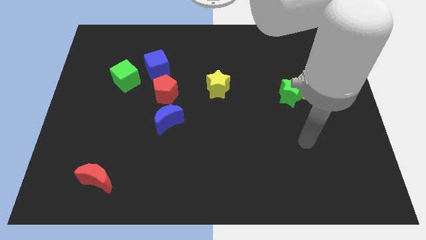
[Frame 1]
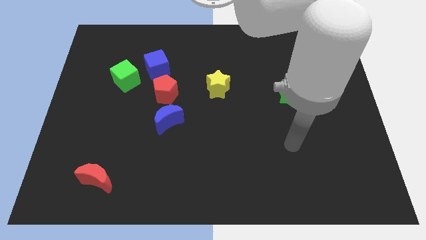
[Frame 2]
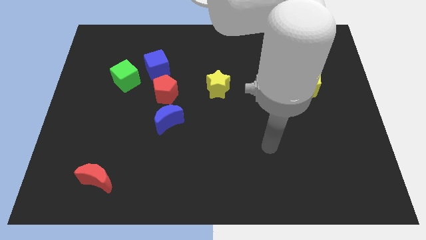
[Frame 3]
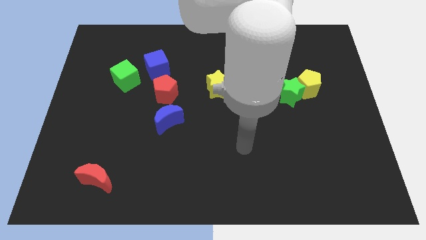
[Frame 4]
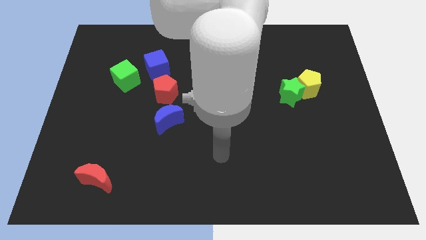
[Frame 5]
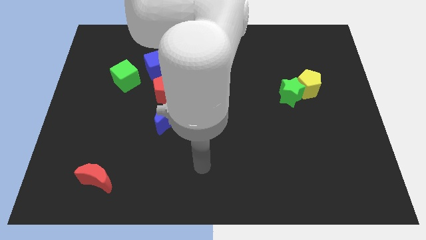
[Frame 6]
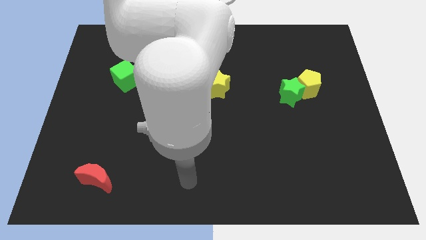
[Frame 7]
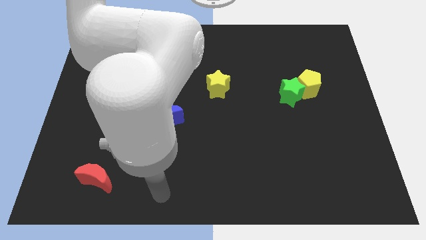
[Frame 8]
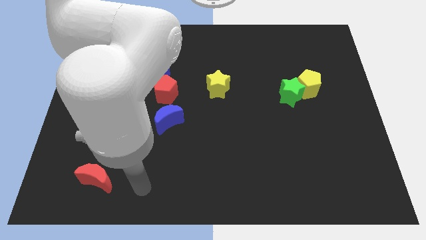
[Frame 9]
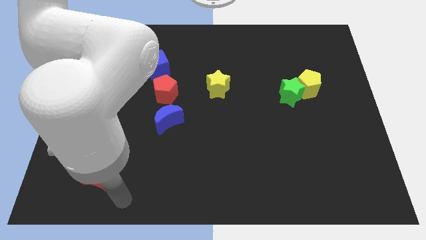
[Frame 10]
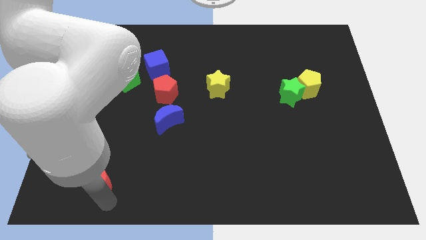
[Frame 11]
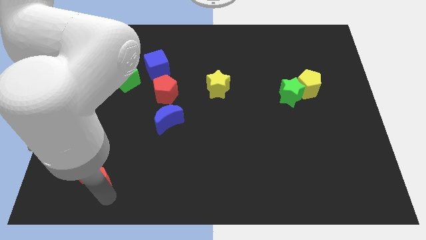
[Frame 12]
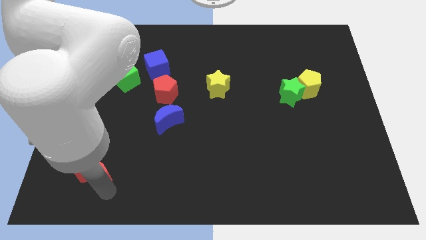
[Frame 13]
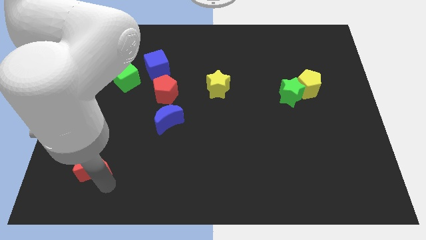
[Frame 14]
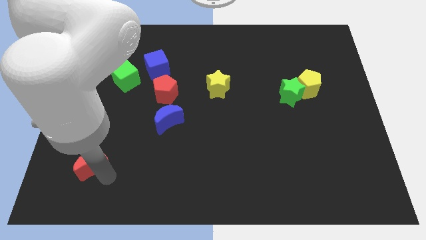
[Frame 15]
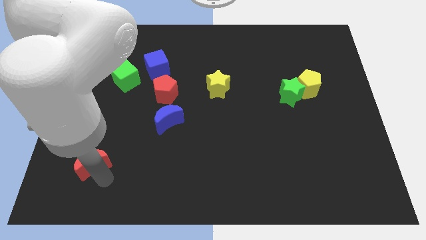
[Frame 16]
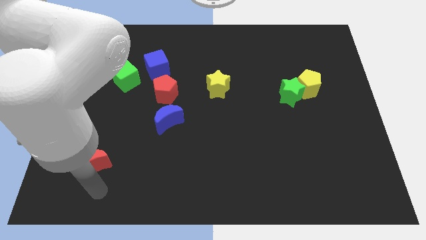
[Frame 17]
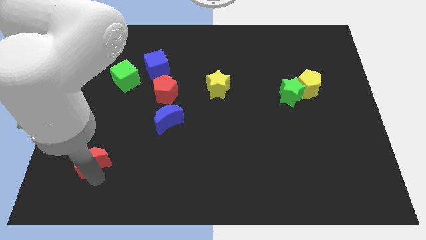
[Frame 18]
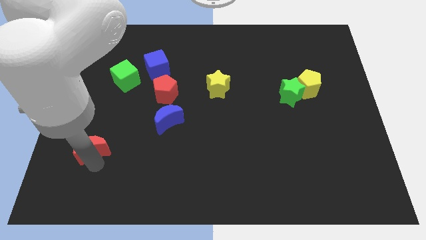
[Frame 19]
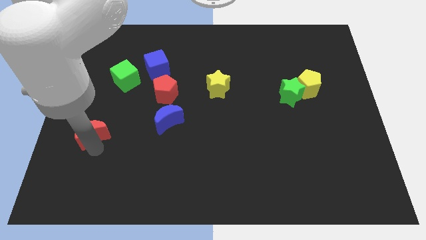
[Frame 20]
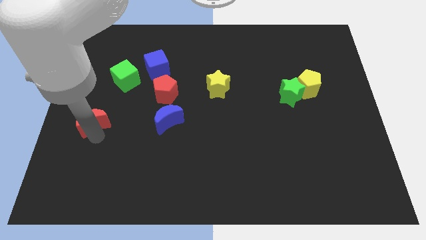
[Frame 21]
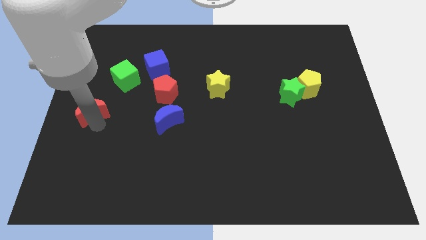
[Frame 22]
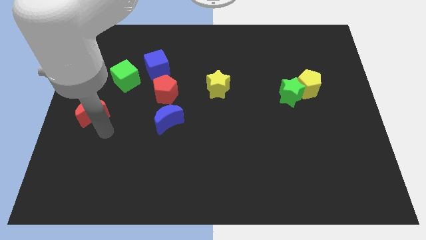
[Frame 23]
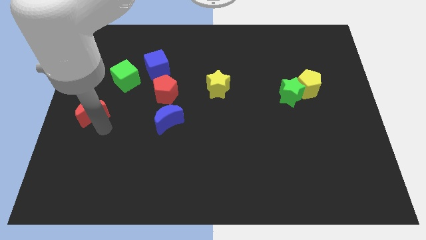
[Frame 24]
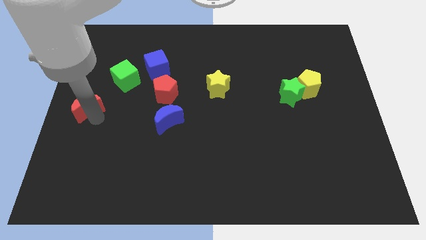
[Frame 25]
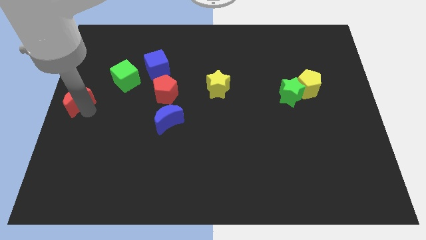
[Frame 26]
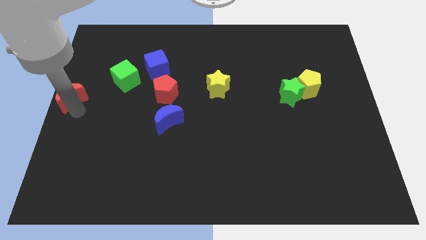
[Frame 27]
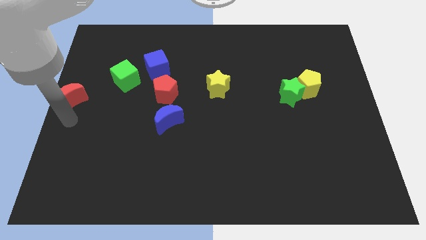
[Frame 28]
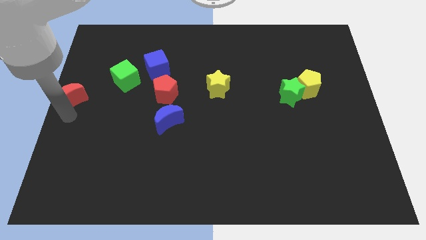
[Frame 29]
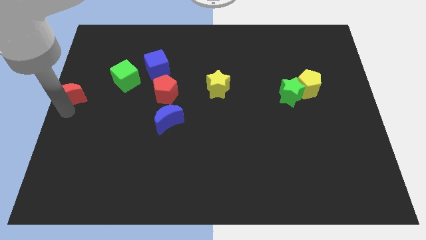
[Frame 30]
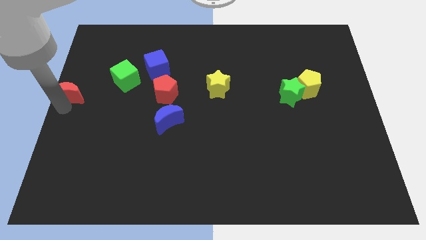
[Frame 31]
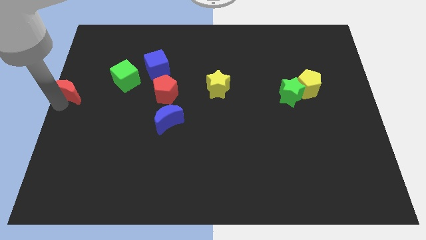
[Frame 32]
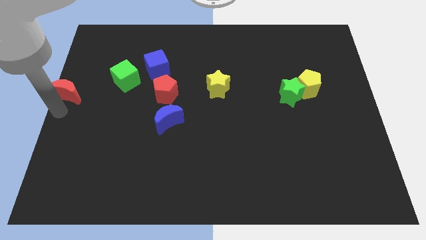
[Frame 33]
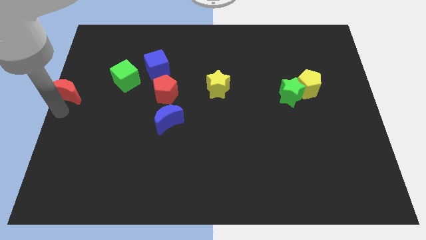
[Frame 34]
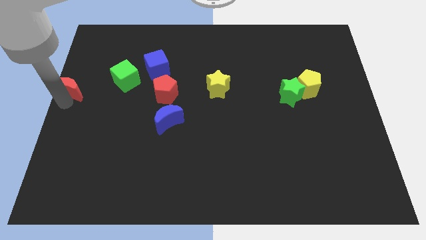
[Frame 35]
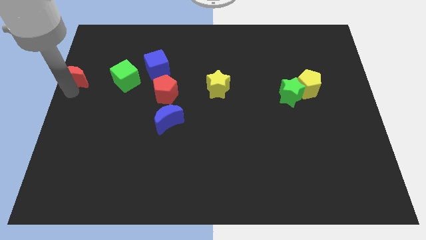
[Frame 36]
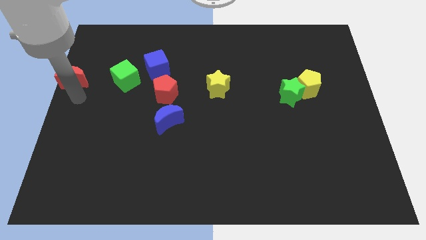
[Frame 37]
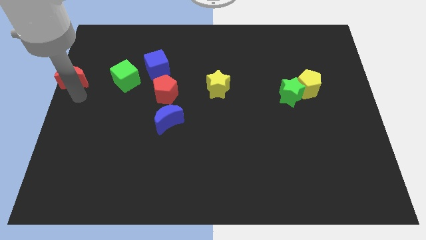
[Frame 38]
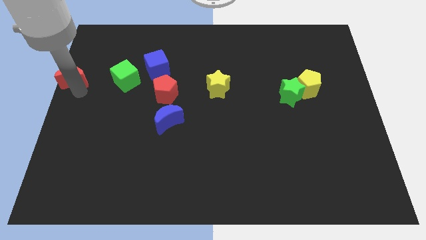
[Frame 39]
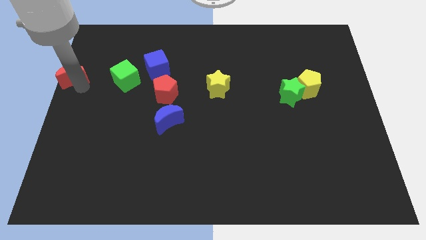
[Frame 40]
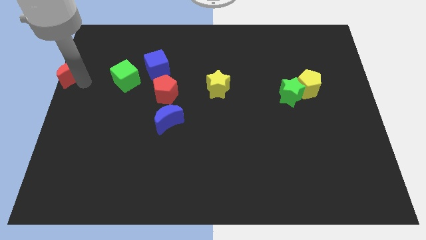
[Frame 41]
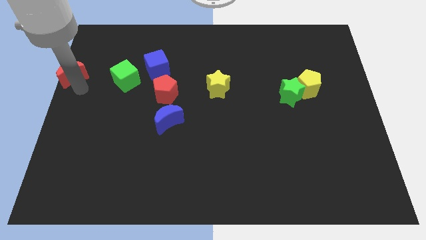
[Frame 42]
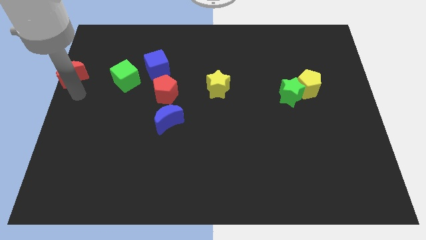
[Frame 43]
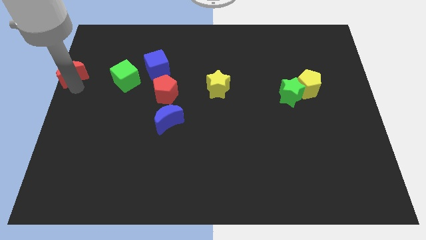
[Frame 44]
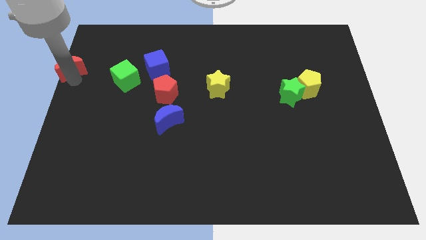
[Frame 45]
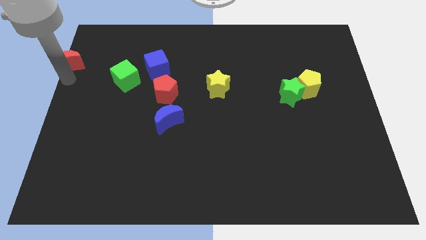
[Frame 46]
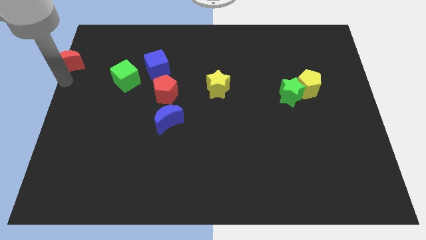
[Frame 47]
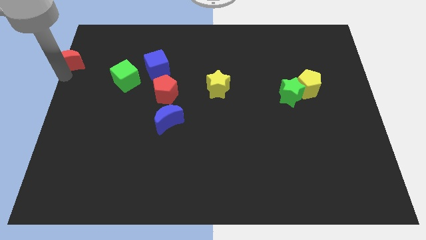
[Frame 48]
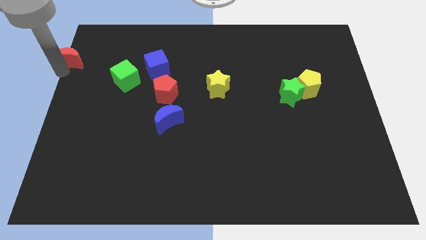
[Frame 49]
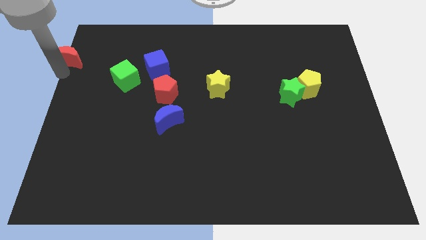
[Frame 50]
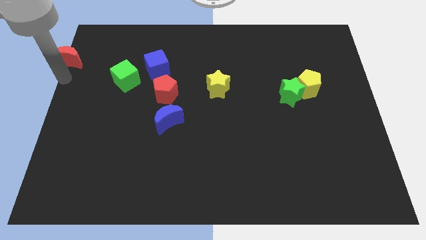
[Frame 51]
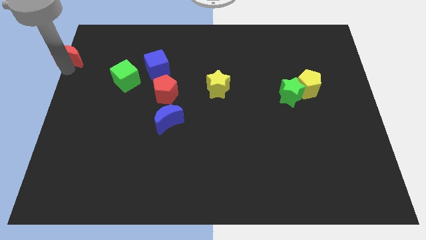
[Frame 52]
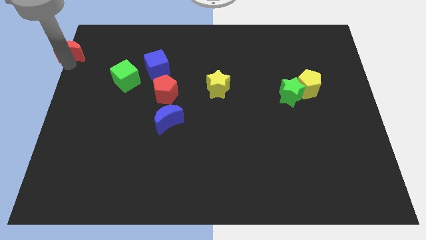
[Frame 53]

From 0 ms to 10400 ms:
put the red moon to the top left corner

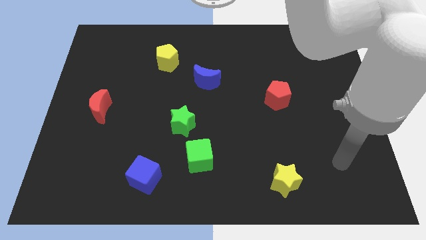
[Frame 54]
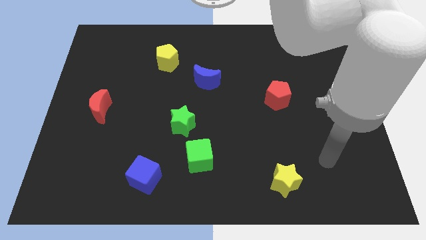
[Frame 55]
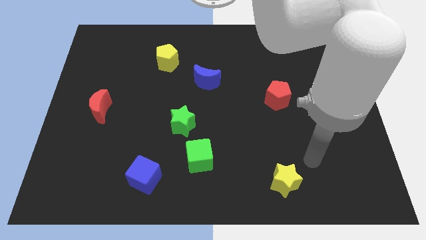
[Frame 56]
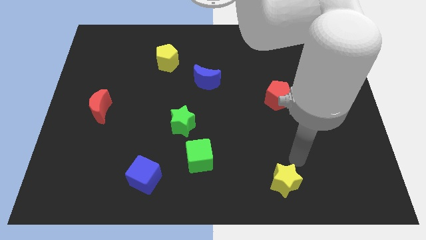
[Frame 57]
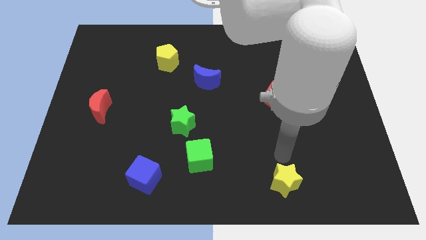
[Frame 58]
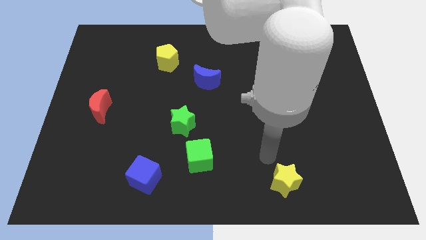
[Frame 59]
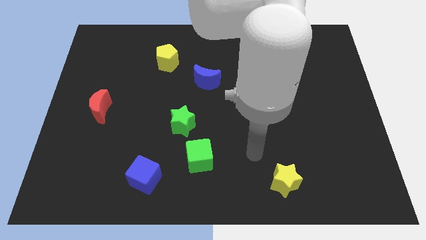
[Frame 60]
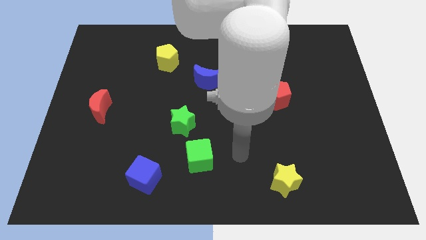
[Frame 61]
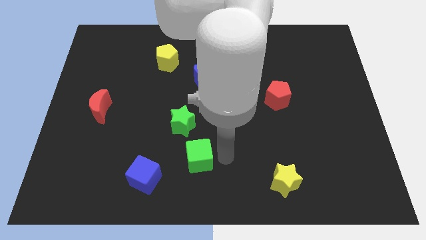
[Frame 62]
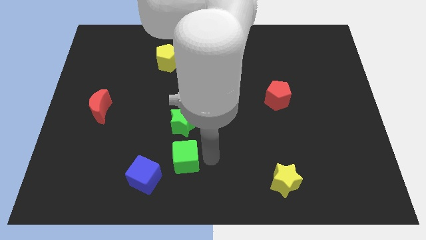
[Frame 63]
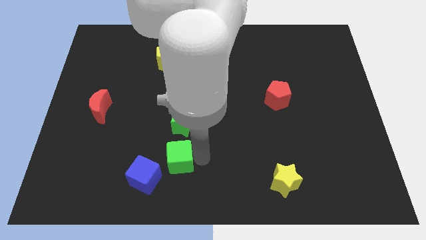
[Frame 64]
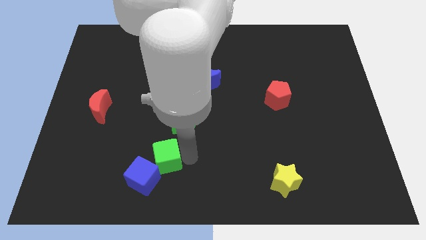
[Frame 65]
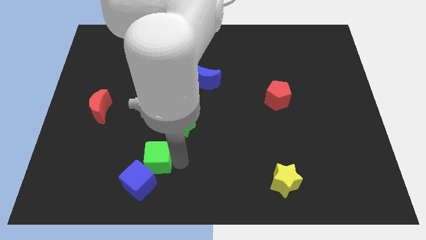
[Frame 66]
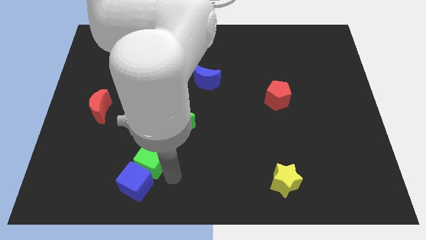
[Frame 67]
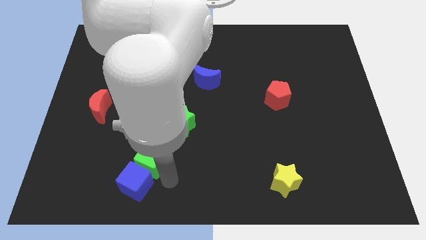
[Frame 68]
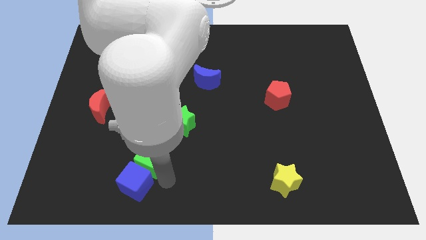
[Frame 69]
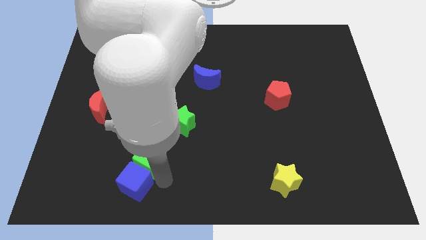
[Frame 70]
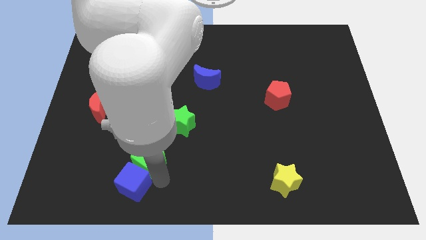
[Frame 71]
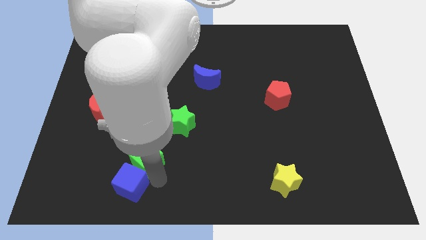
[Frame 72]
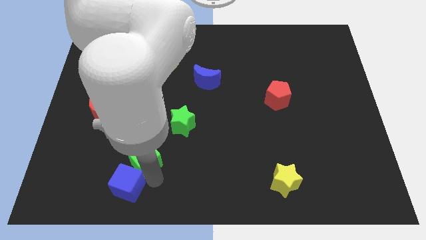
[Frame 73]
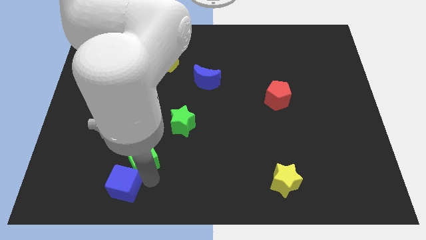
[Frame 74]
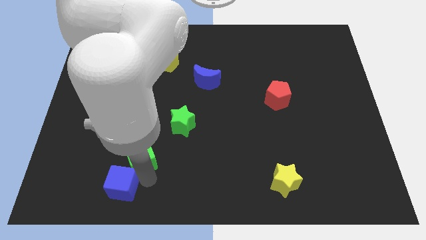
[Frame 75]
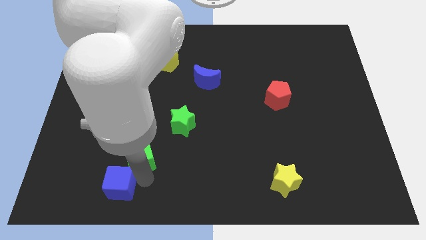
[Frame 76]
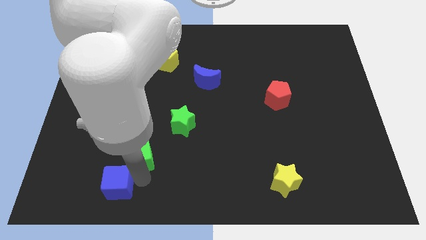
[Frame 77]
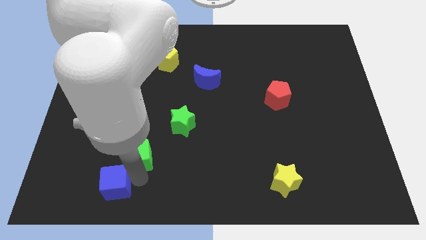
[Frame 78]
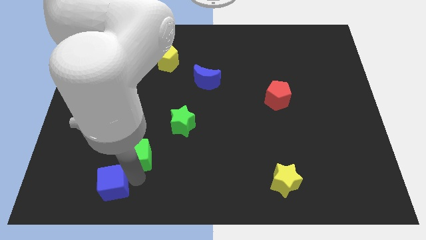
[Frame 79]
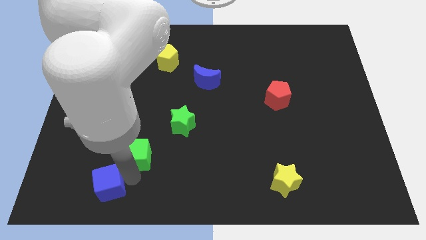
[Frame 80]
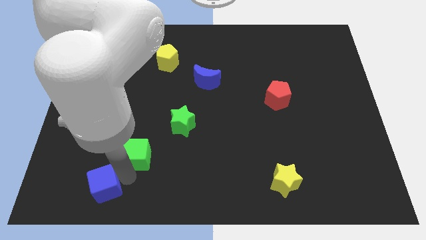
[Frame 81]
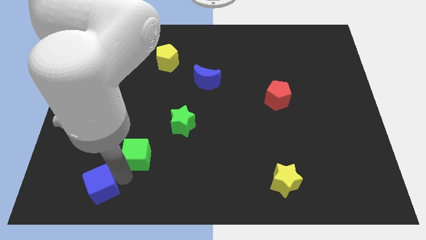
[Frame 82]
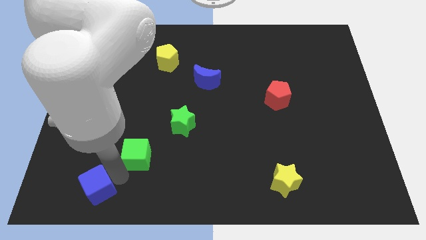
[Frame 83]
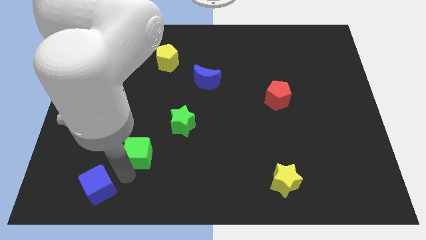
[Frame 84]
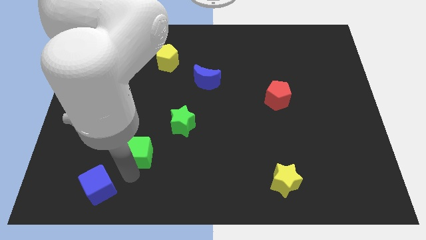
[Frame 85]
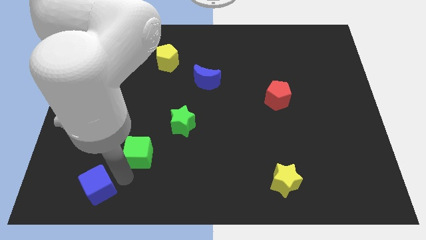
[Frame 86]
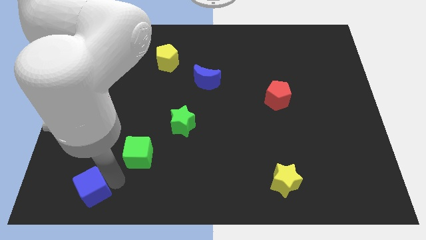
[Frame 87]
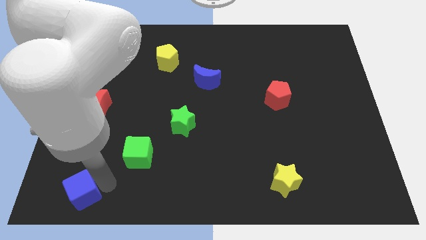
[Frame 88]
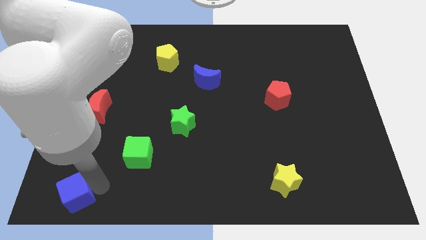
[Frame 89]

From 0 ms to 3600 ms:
slide the blue cube to the bottom left
